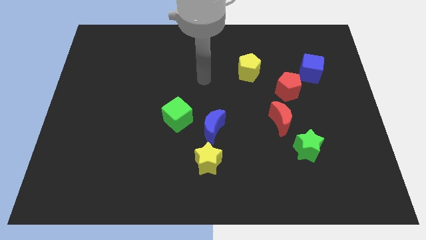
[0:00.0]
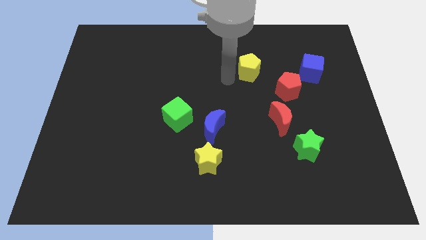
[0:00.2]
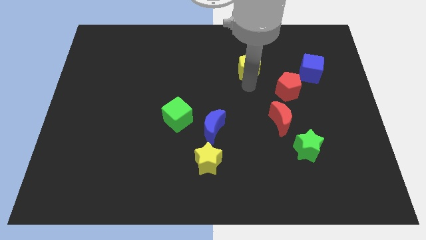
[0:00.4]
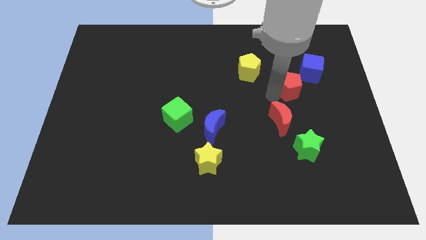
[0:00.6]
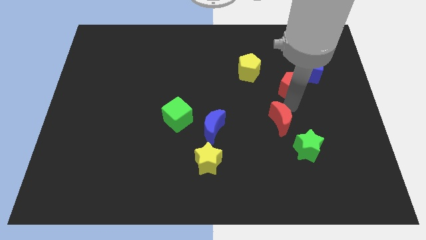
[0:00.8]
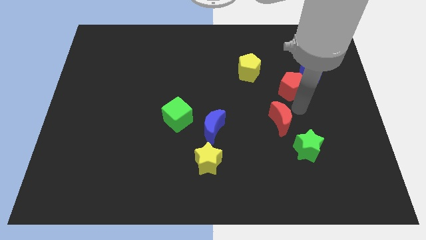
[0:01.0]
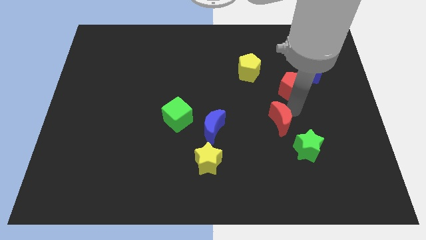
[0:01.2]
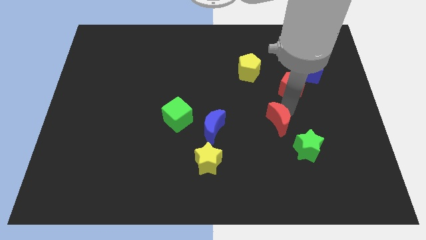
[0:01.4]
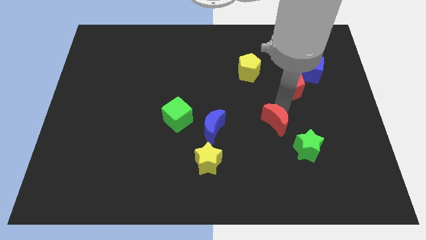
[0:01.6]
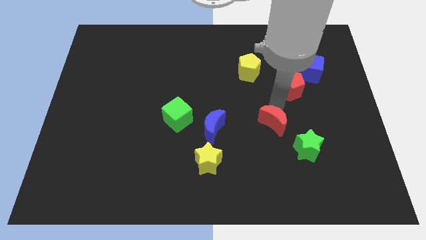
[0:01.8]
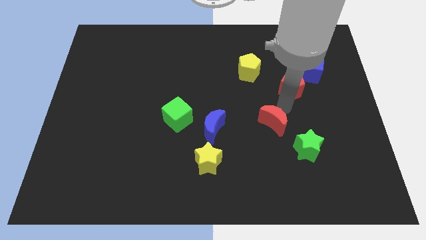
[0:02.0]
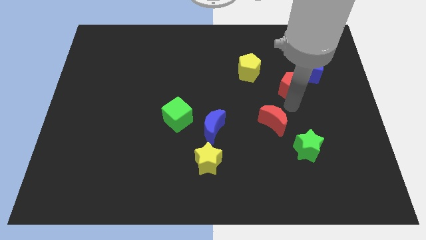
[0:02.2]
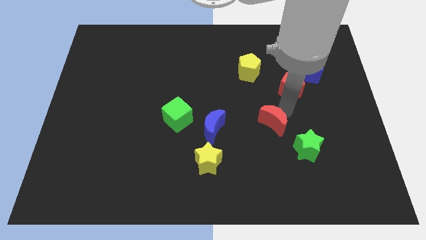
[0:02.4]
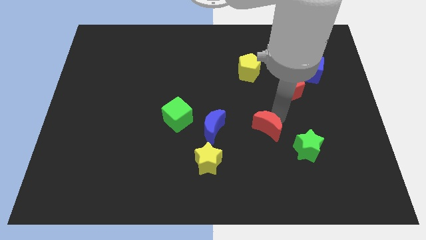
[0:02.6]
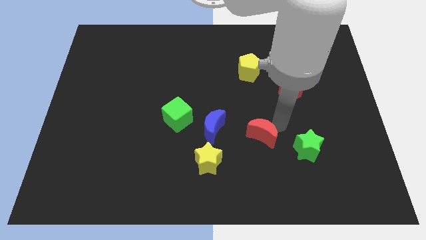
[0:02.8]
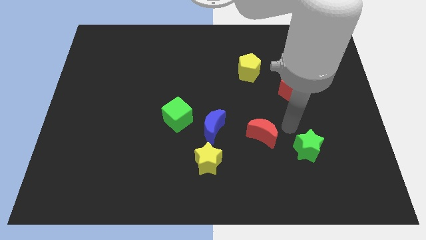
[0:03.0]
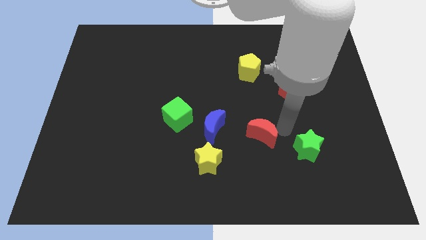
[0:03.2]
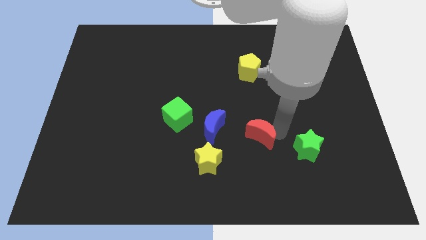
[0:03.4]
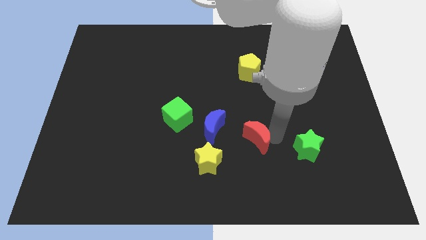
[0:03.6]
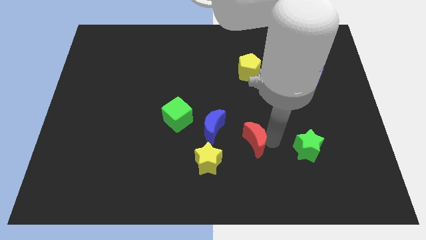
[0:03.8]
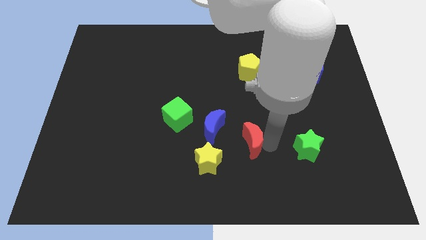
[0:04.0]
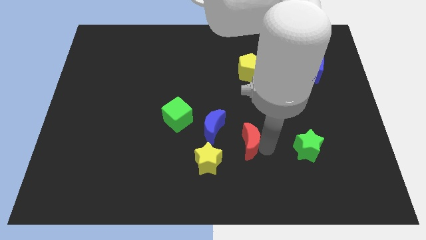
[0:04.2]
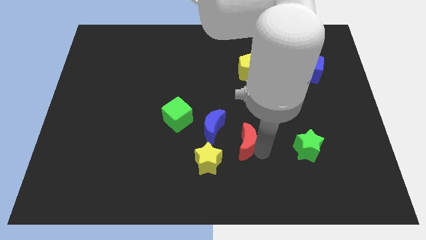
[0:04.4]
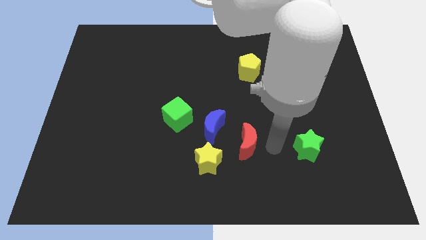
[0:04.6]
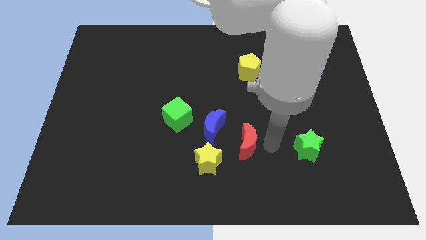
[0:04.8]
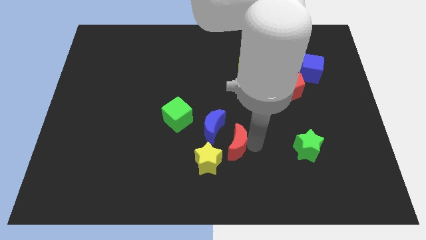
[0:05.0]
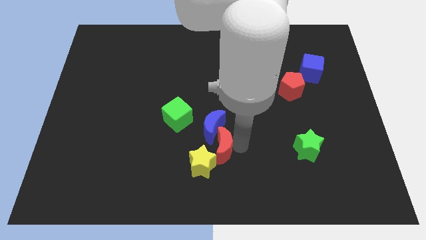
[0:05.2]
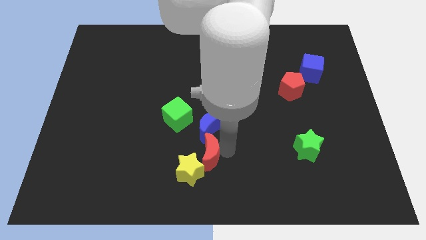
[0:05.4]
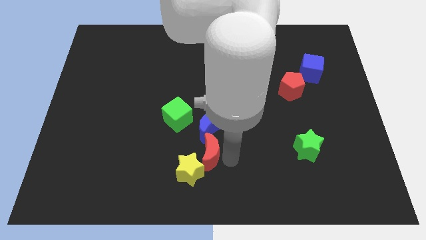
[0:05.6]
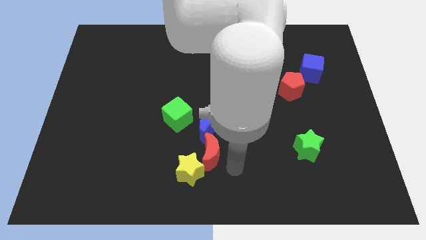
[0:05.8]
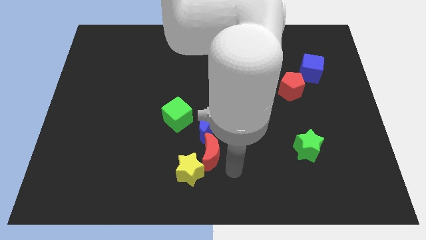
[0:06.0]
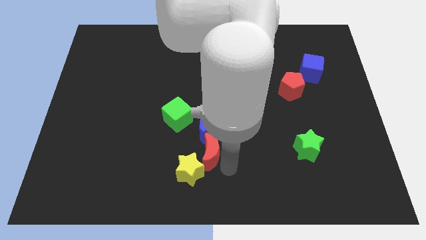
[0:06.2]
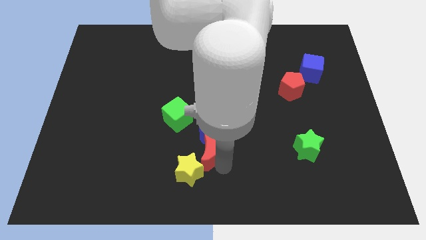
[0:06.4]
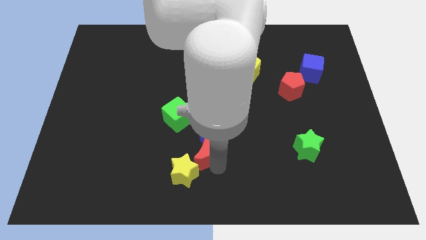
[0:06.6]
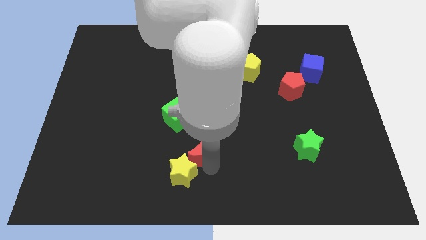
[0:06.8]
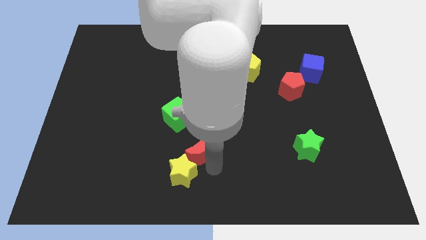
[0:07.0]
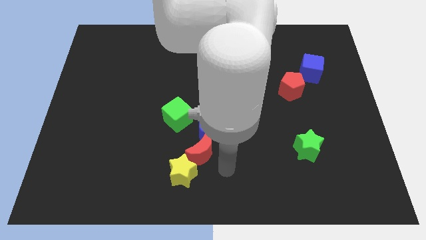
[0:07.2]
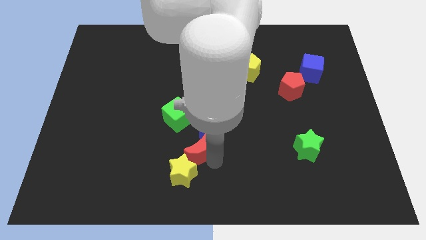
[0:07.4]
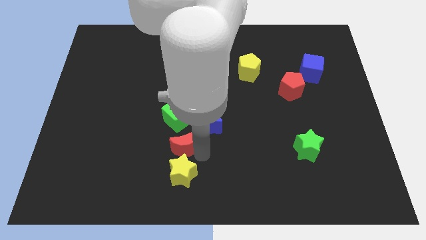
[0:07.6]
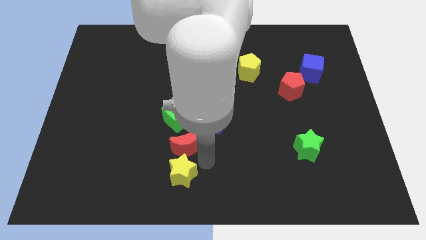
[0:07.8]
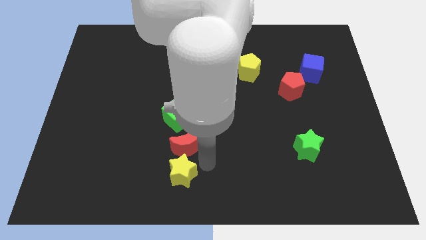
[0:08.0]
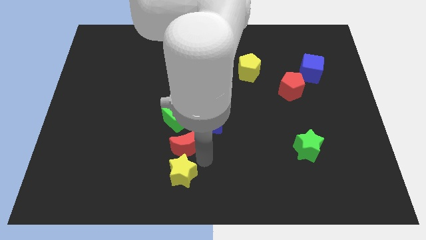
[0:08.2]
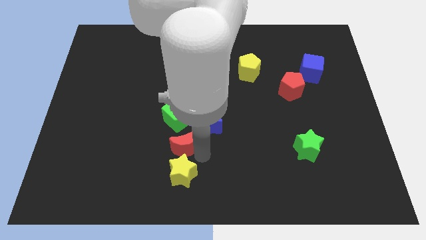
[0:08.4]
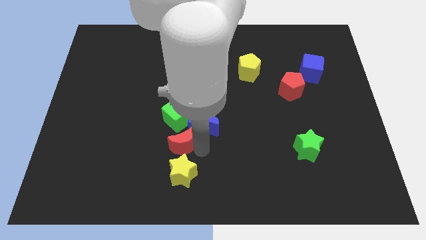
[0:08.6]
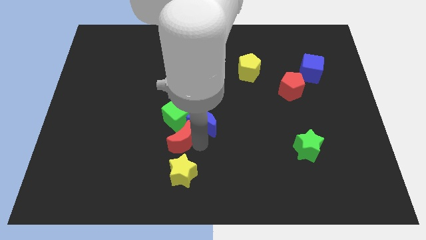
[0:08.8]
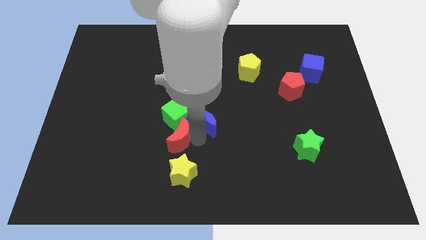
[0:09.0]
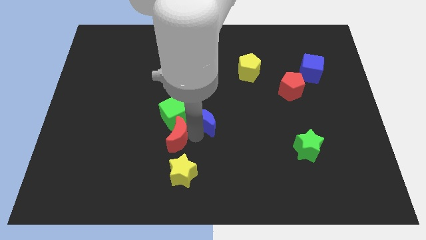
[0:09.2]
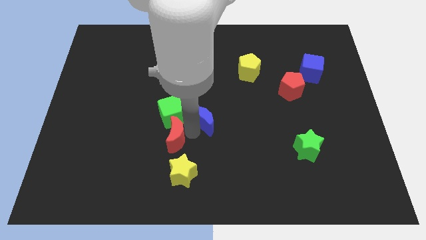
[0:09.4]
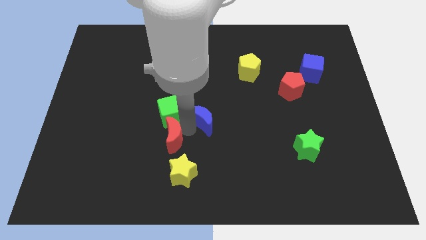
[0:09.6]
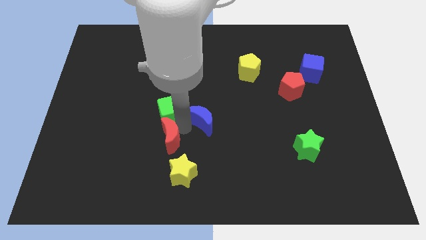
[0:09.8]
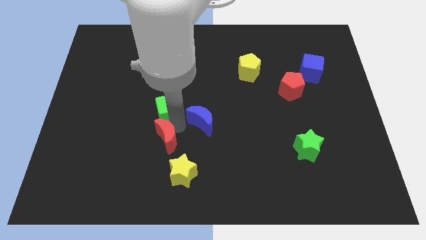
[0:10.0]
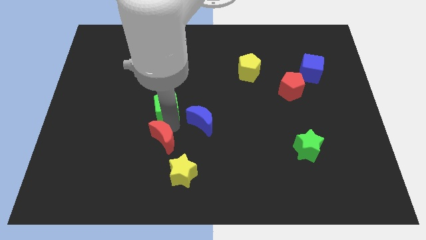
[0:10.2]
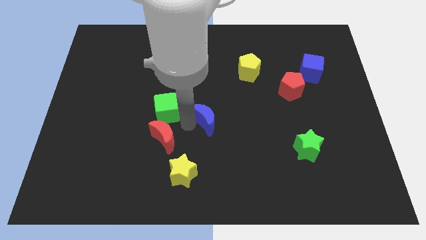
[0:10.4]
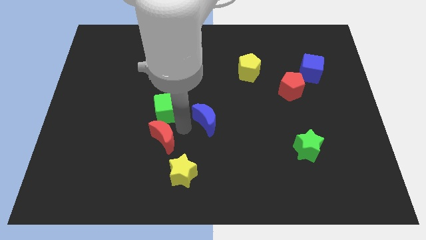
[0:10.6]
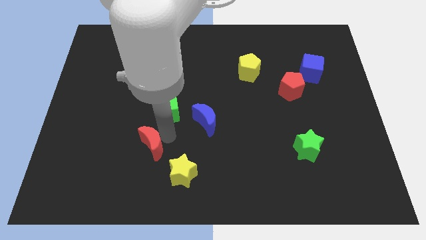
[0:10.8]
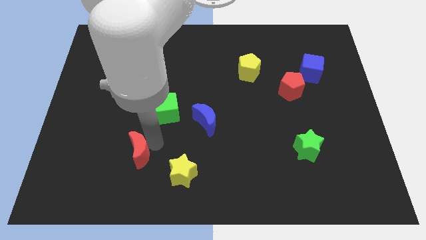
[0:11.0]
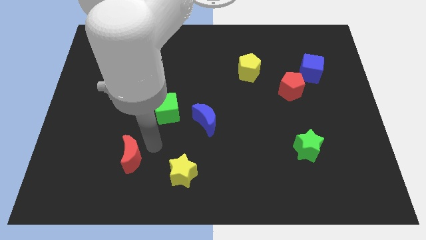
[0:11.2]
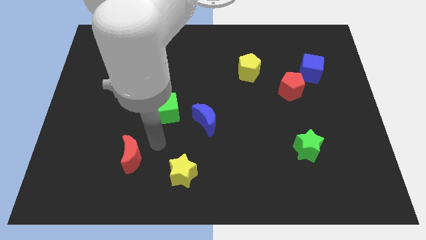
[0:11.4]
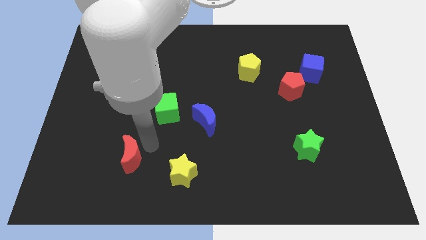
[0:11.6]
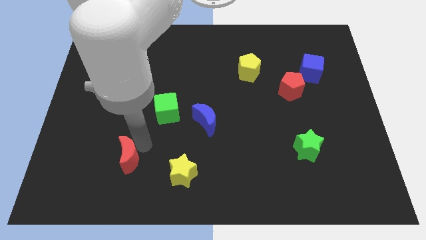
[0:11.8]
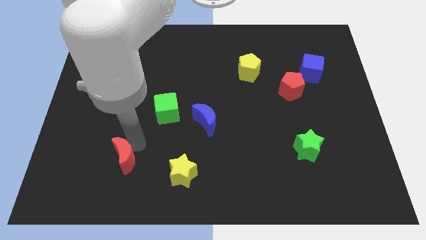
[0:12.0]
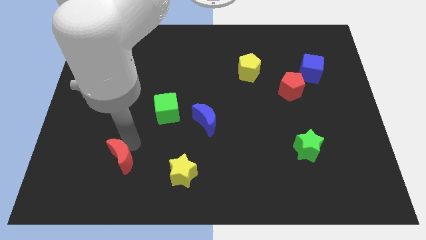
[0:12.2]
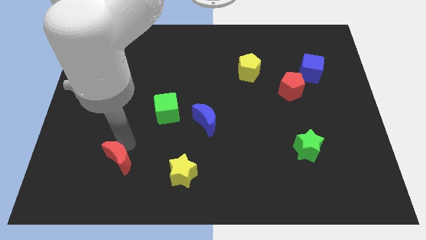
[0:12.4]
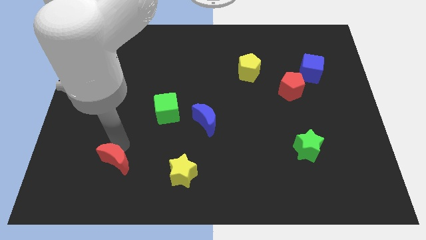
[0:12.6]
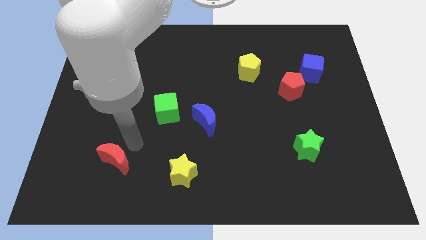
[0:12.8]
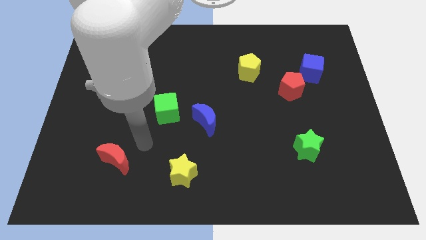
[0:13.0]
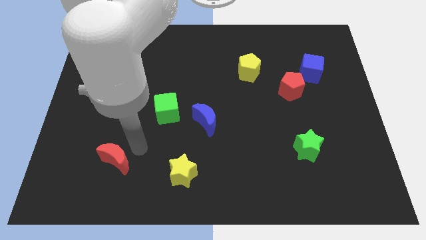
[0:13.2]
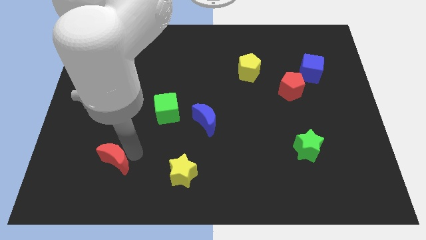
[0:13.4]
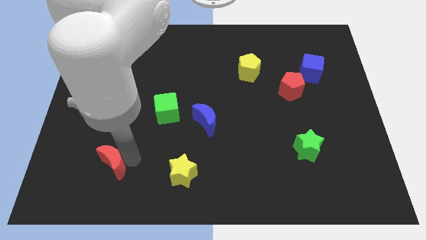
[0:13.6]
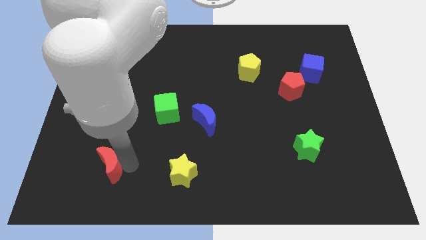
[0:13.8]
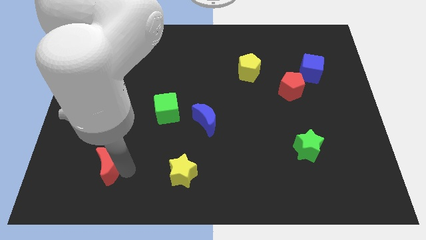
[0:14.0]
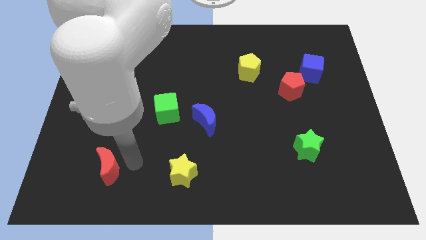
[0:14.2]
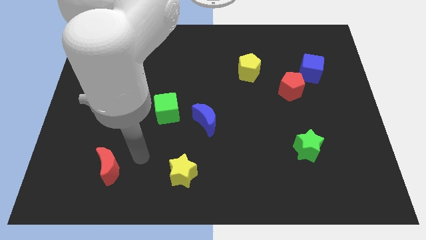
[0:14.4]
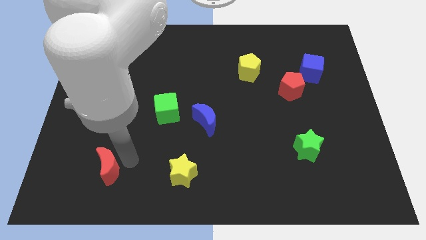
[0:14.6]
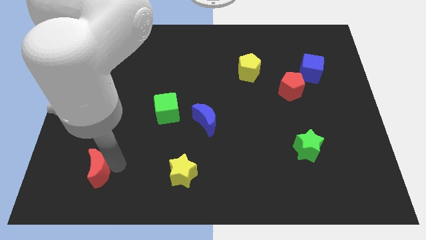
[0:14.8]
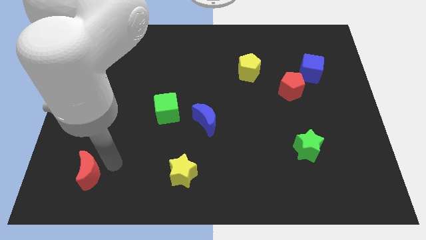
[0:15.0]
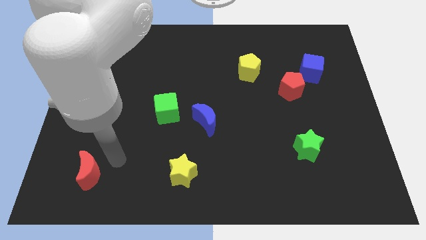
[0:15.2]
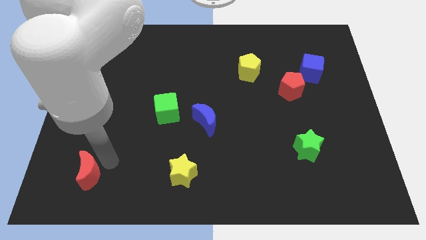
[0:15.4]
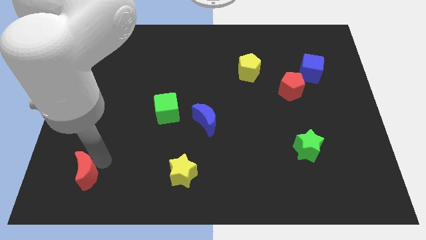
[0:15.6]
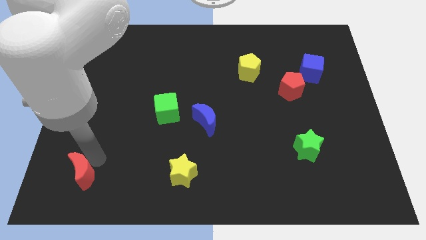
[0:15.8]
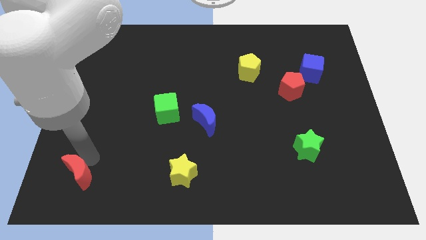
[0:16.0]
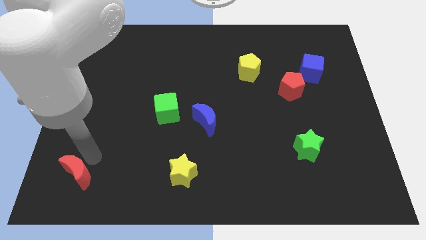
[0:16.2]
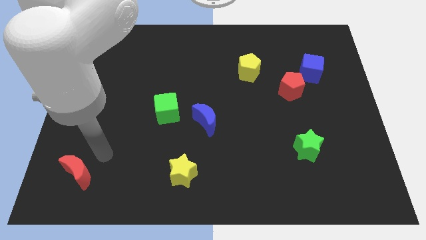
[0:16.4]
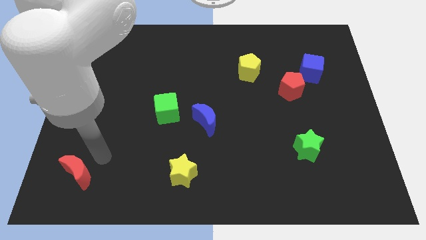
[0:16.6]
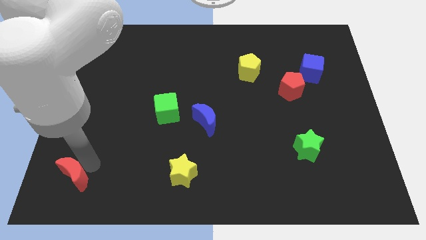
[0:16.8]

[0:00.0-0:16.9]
put the red moon to the lower left corner
